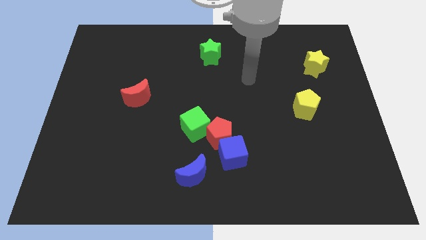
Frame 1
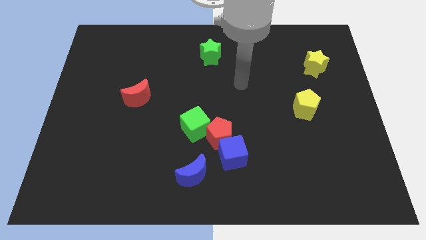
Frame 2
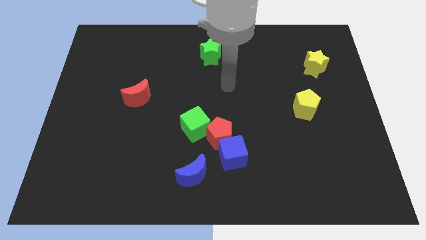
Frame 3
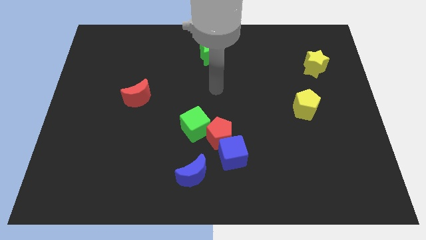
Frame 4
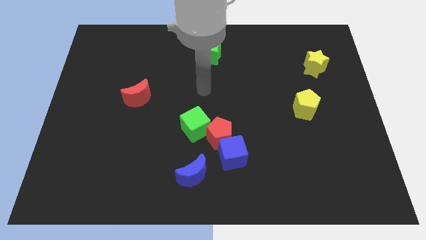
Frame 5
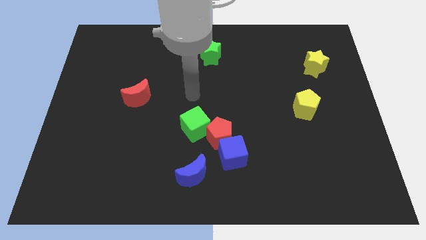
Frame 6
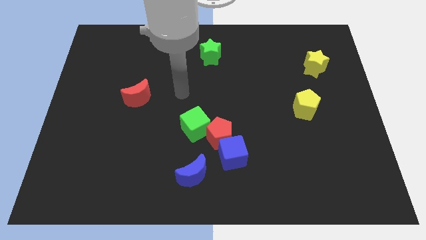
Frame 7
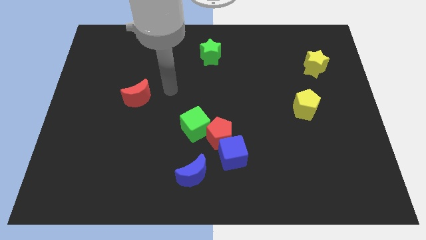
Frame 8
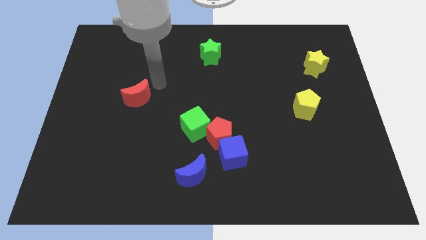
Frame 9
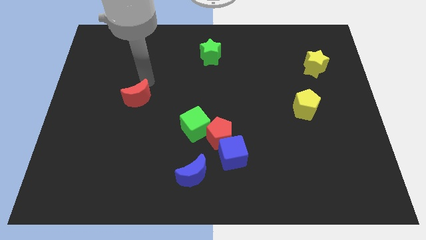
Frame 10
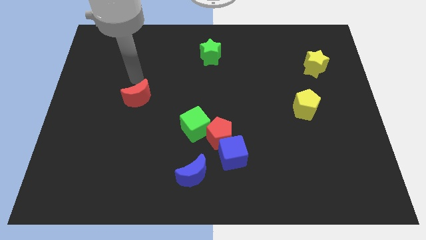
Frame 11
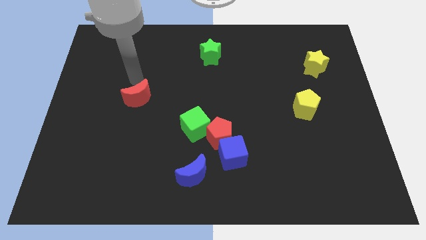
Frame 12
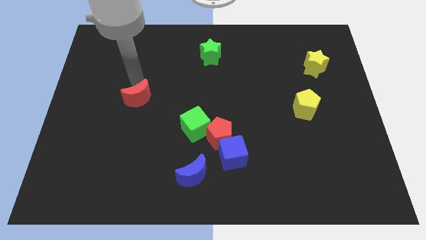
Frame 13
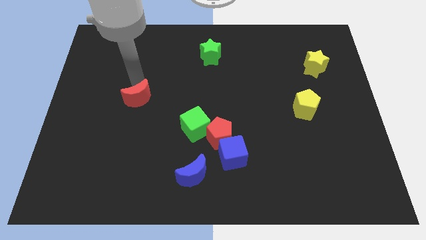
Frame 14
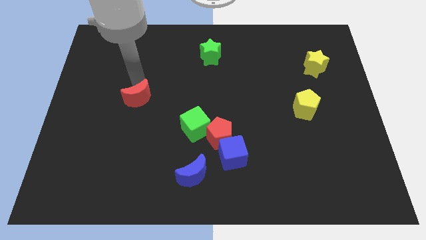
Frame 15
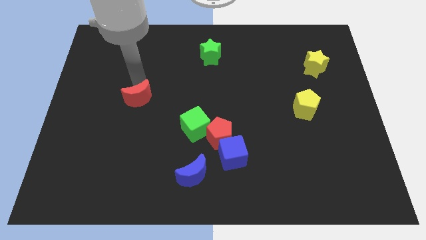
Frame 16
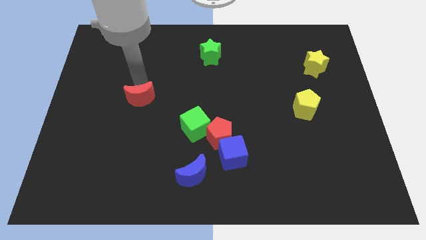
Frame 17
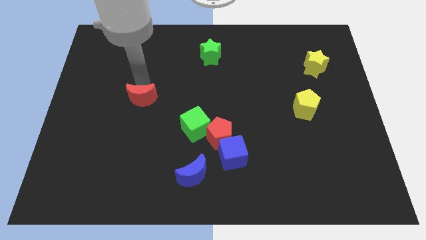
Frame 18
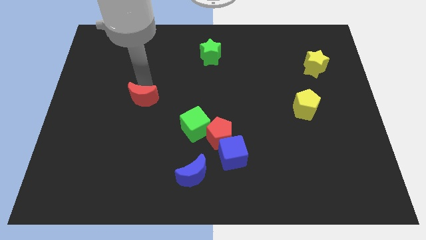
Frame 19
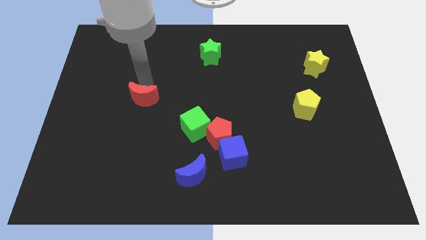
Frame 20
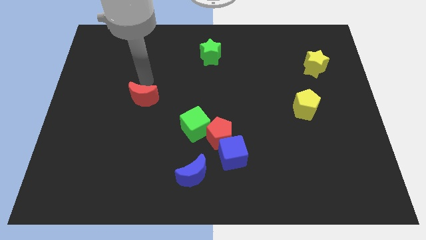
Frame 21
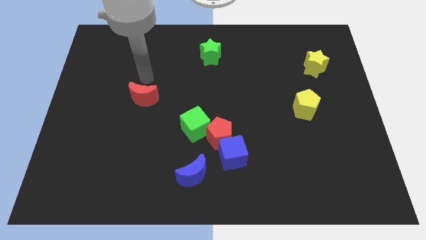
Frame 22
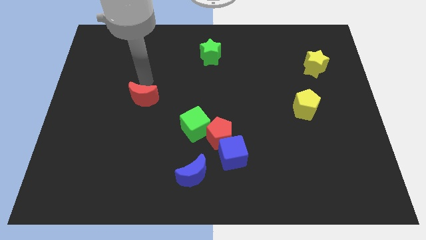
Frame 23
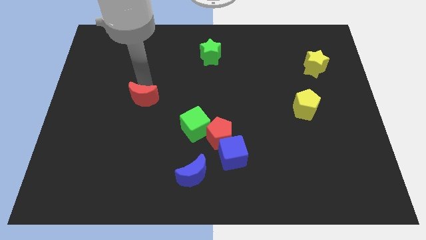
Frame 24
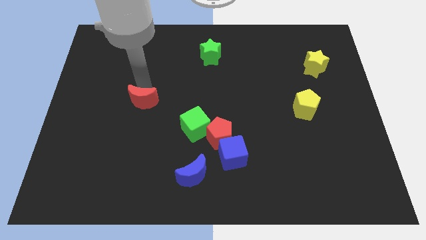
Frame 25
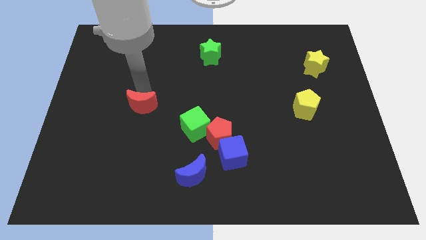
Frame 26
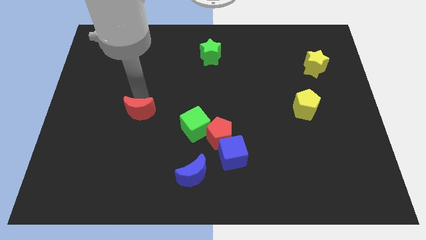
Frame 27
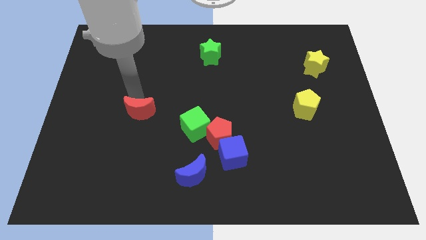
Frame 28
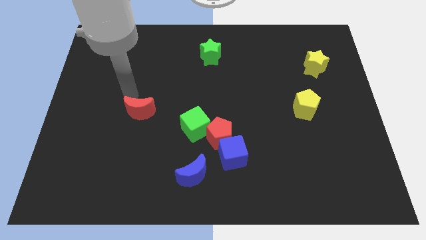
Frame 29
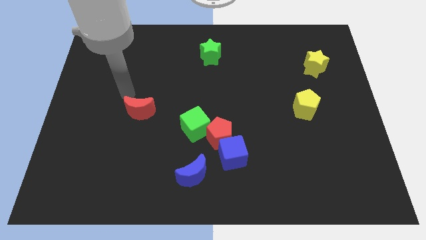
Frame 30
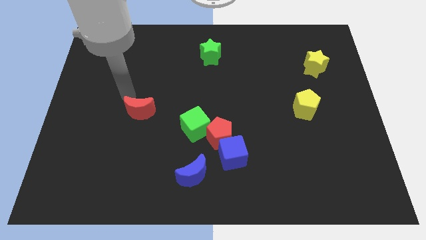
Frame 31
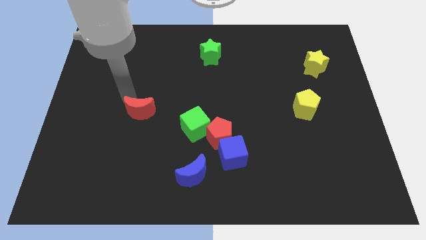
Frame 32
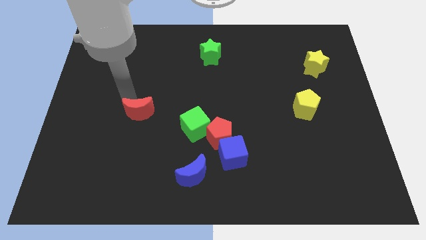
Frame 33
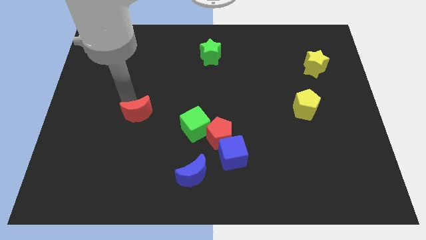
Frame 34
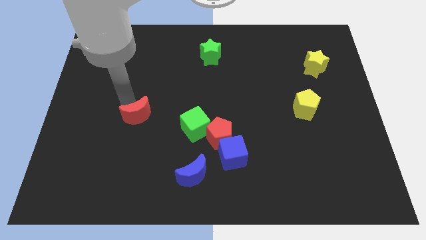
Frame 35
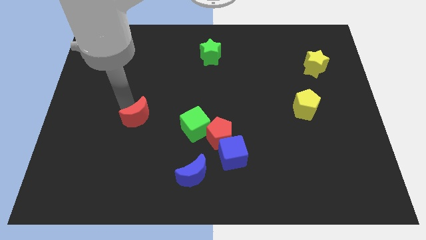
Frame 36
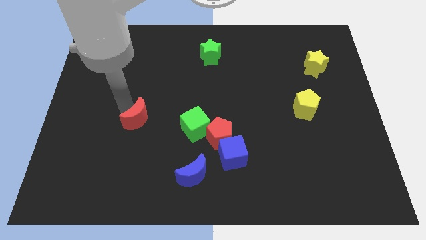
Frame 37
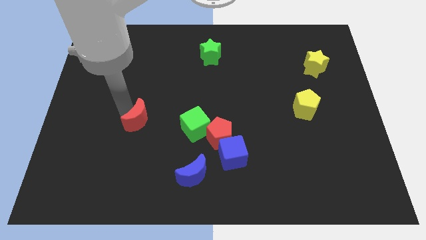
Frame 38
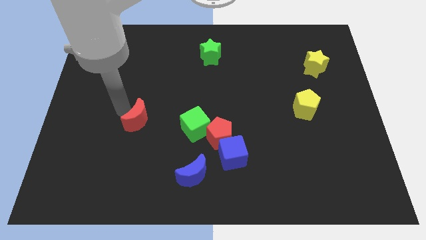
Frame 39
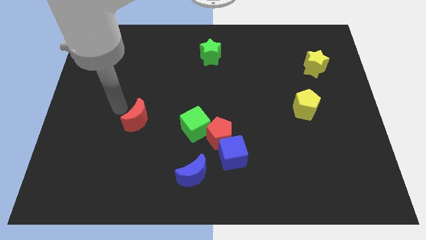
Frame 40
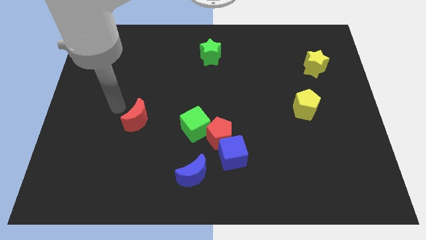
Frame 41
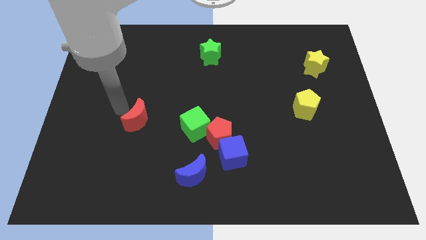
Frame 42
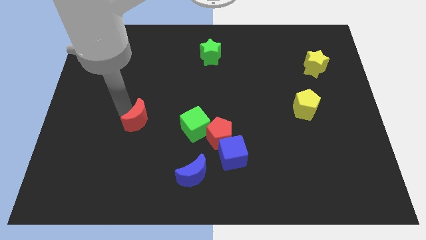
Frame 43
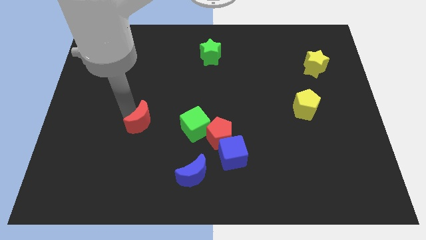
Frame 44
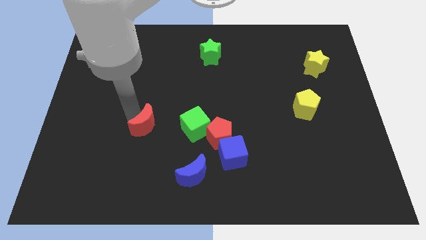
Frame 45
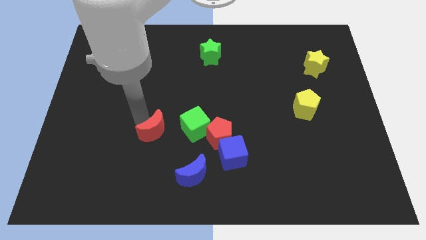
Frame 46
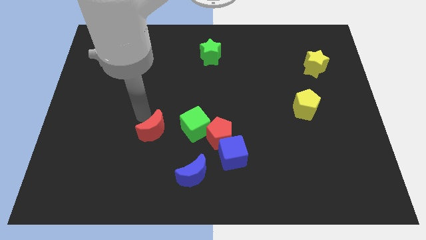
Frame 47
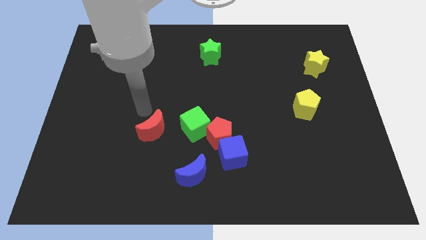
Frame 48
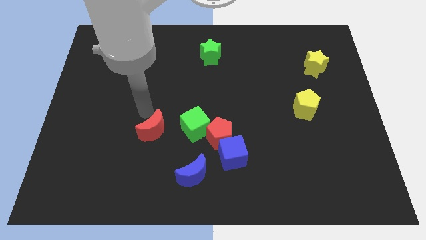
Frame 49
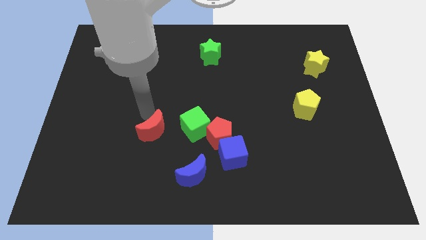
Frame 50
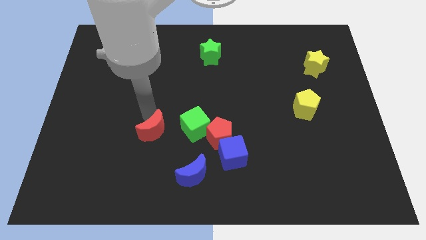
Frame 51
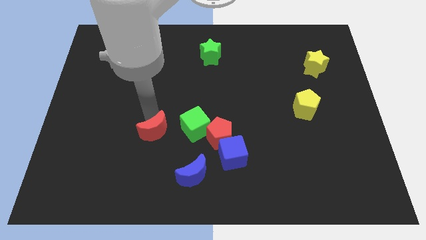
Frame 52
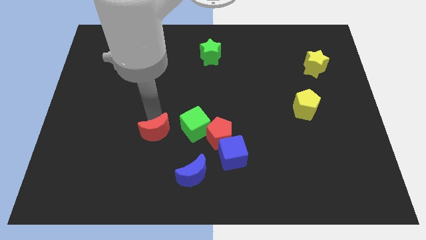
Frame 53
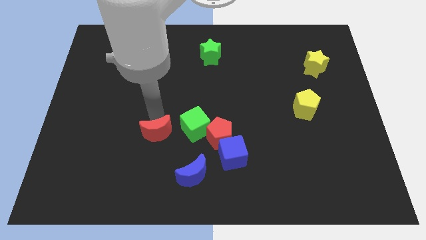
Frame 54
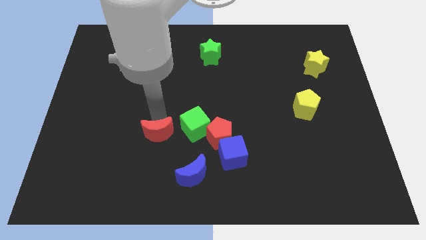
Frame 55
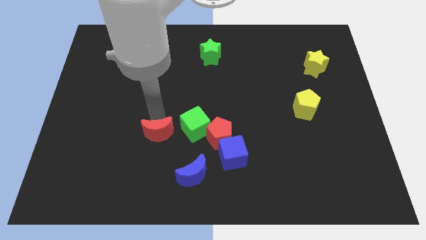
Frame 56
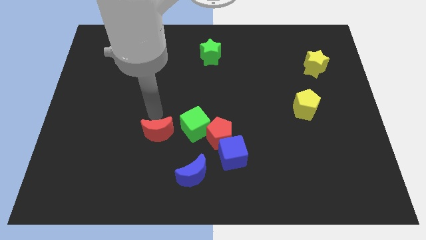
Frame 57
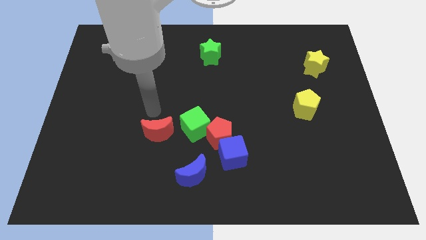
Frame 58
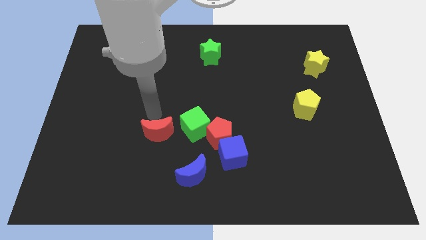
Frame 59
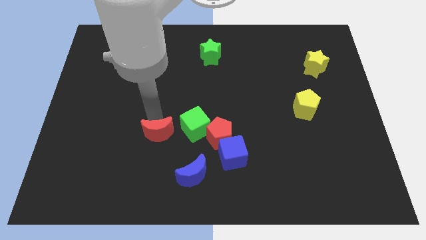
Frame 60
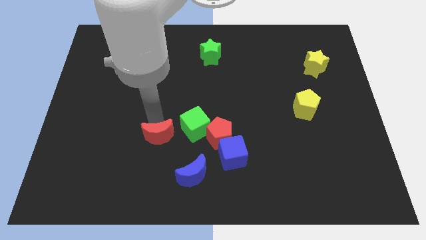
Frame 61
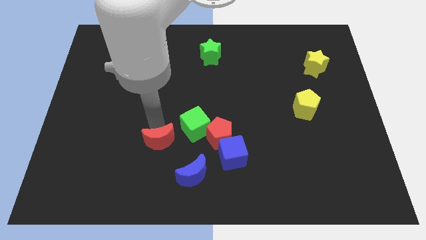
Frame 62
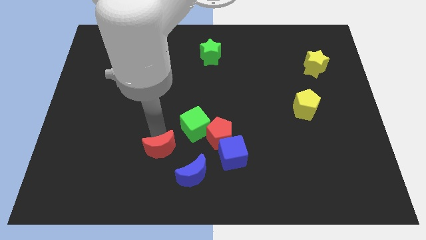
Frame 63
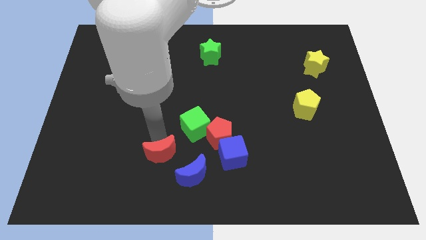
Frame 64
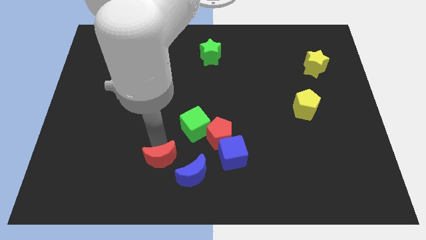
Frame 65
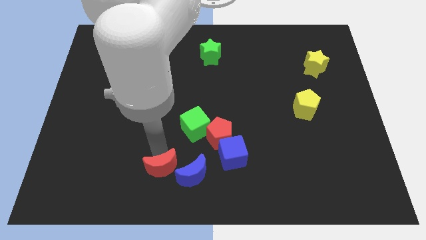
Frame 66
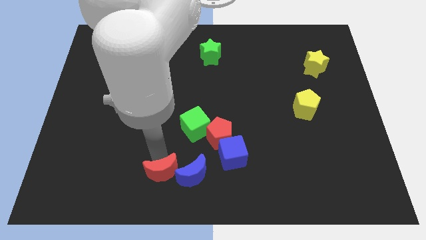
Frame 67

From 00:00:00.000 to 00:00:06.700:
put the red moon to the bottom side
